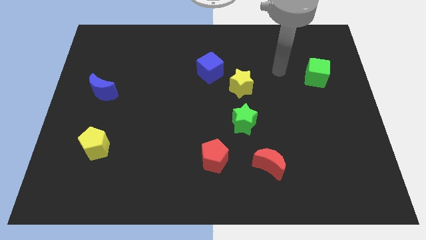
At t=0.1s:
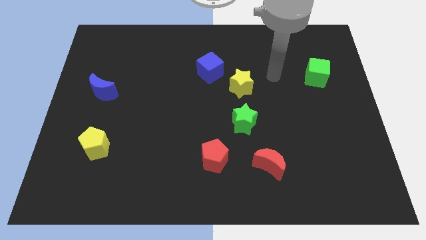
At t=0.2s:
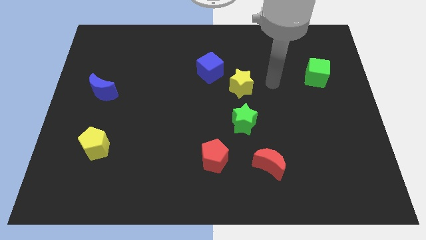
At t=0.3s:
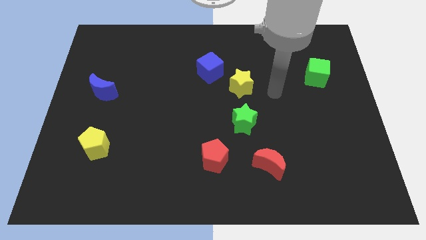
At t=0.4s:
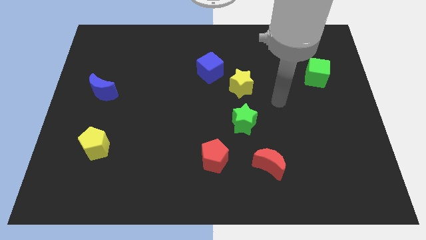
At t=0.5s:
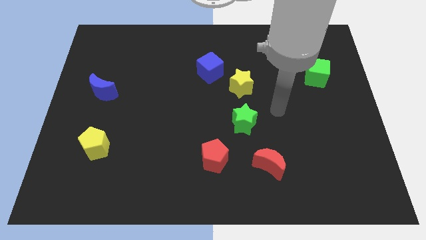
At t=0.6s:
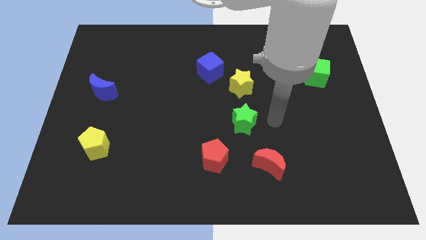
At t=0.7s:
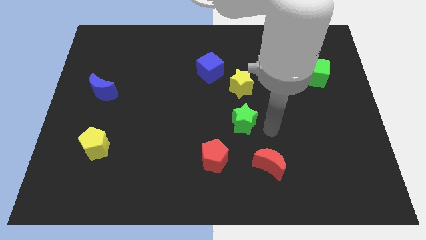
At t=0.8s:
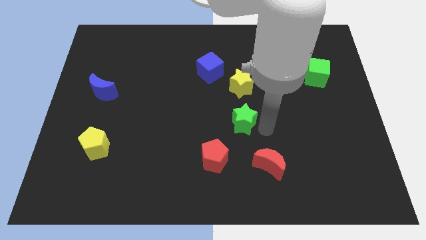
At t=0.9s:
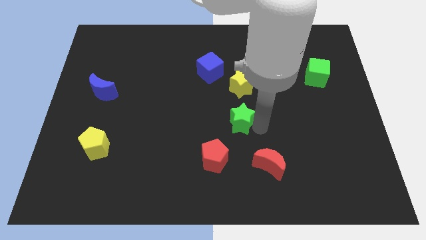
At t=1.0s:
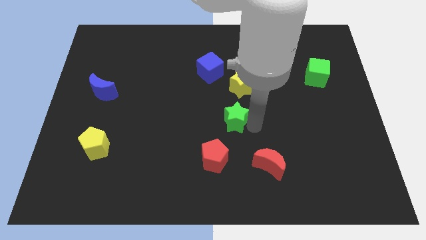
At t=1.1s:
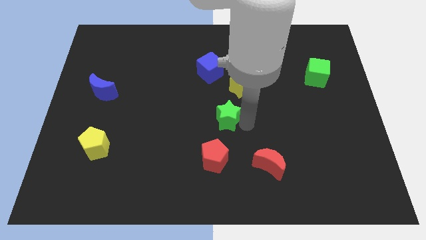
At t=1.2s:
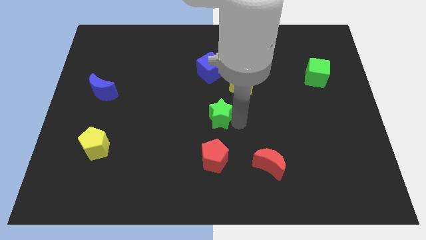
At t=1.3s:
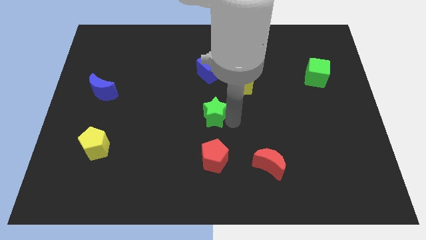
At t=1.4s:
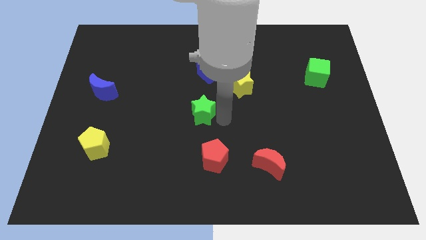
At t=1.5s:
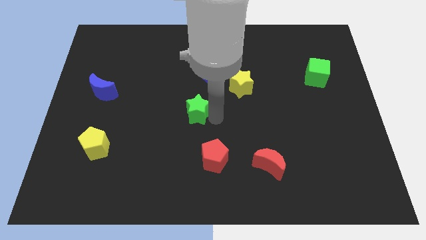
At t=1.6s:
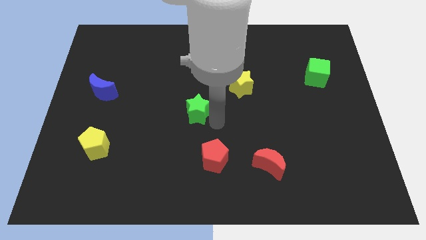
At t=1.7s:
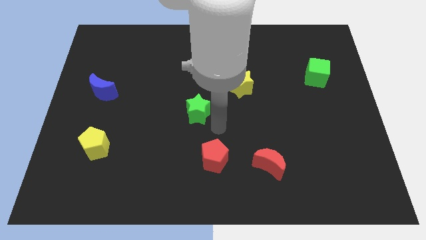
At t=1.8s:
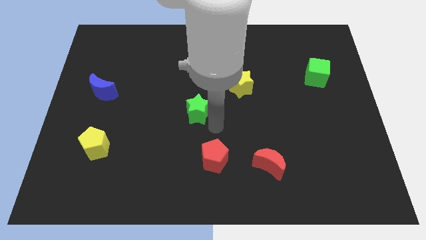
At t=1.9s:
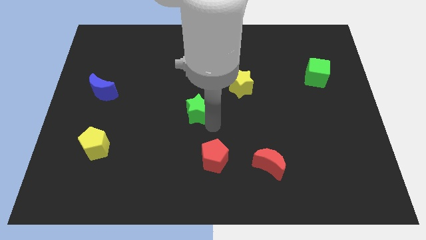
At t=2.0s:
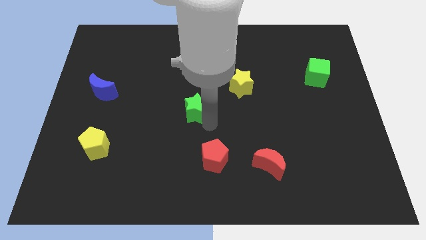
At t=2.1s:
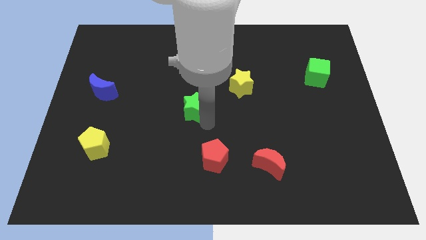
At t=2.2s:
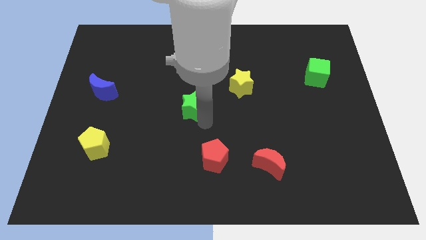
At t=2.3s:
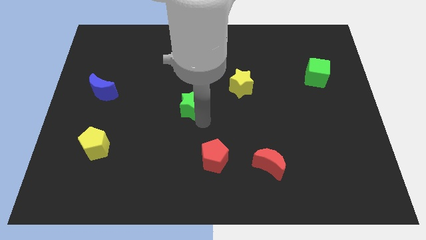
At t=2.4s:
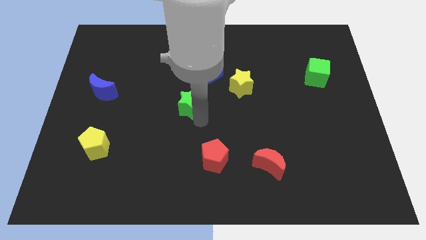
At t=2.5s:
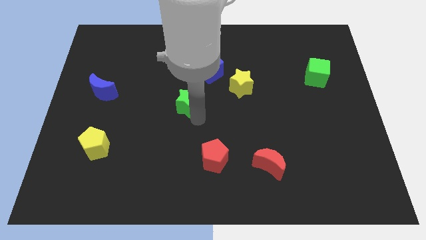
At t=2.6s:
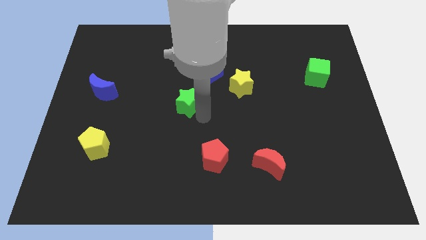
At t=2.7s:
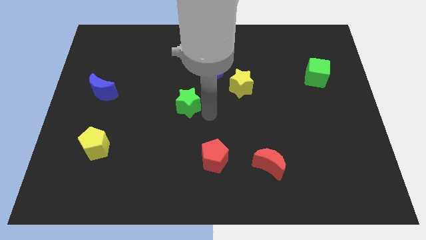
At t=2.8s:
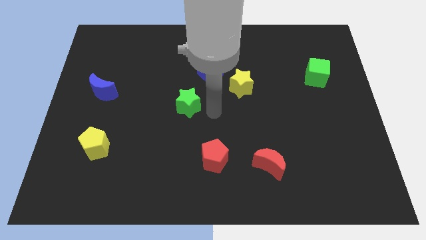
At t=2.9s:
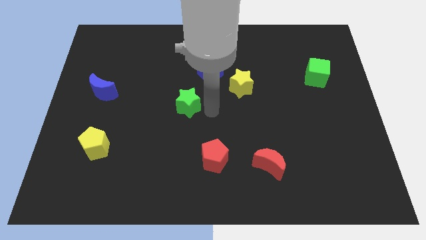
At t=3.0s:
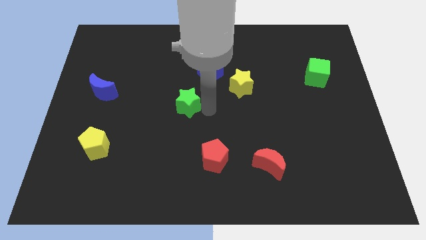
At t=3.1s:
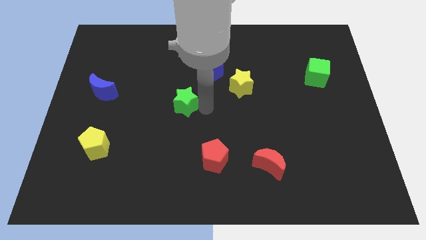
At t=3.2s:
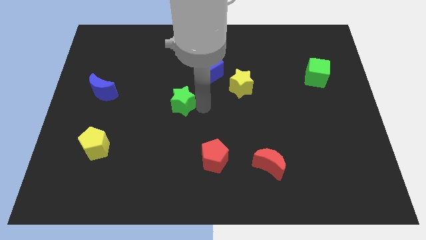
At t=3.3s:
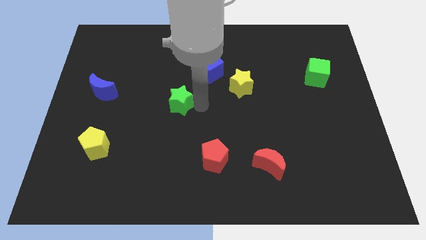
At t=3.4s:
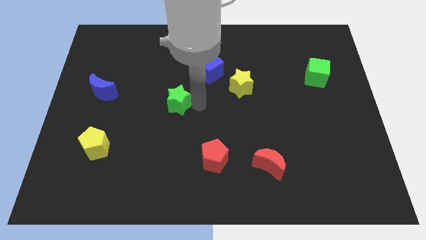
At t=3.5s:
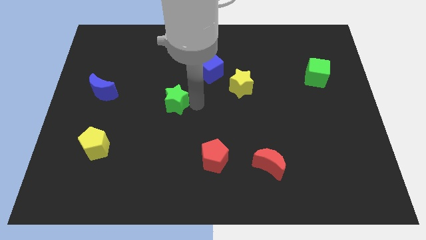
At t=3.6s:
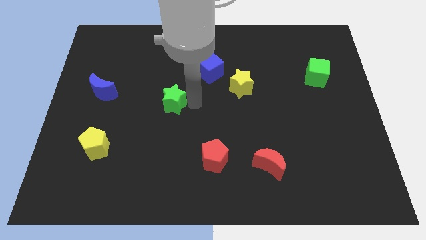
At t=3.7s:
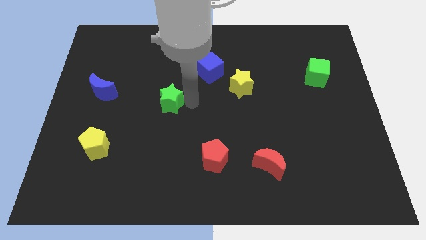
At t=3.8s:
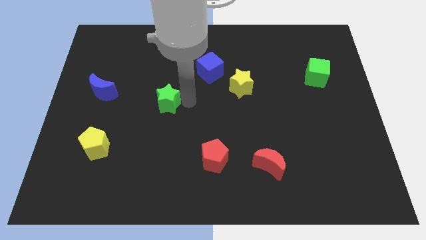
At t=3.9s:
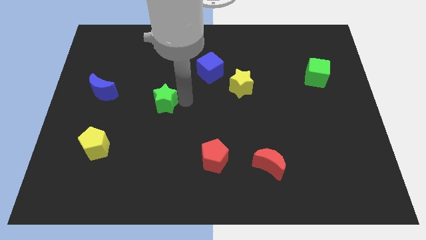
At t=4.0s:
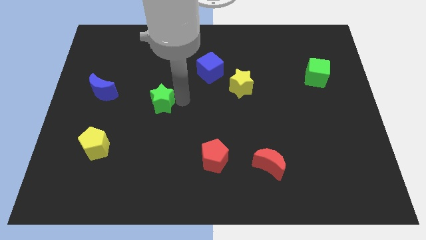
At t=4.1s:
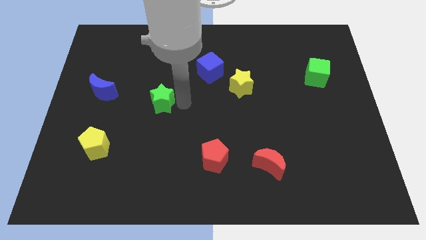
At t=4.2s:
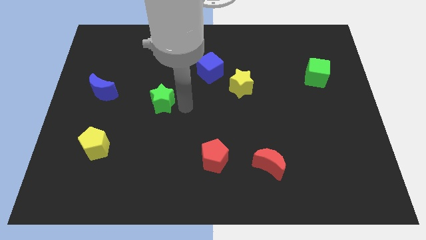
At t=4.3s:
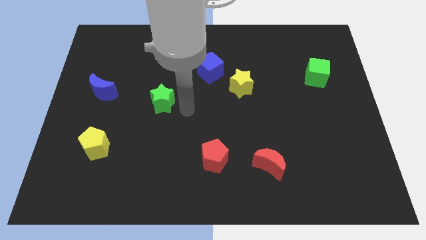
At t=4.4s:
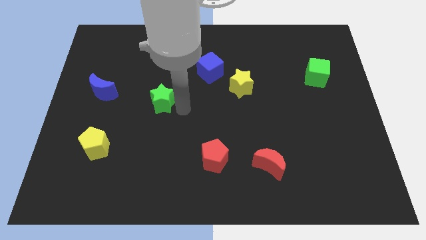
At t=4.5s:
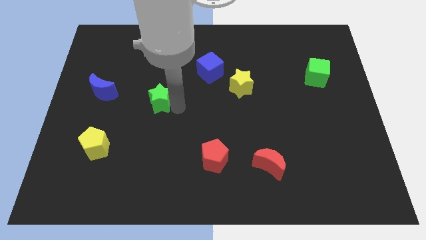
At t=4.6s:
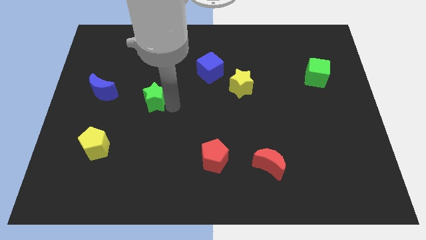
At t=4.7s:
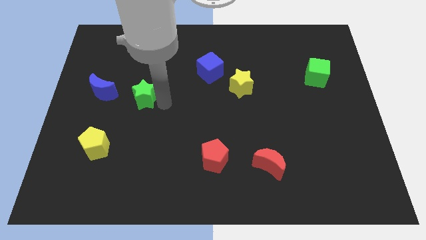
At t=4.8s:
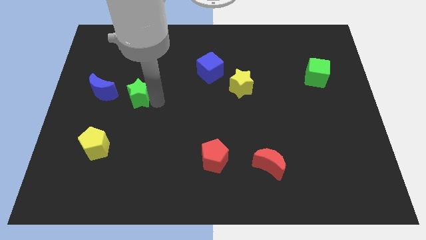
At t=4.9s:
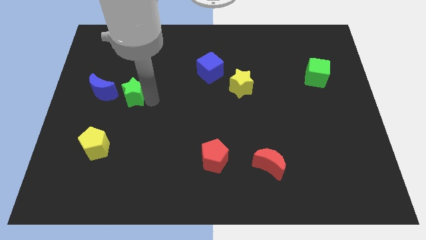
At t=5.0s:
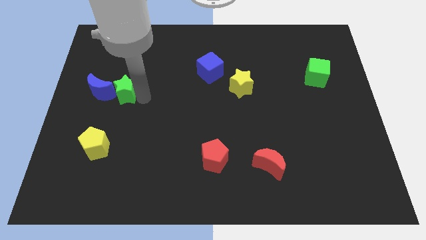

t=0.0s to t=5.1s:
slide the green star close to the blue moon

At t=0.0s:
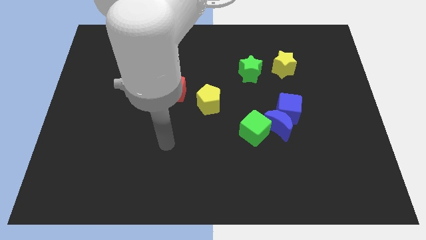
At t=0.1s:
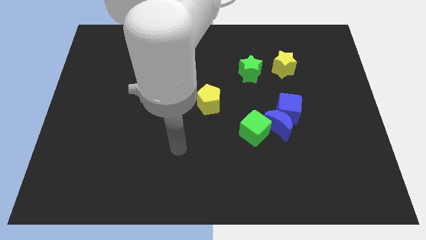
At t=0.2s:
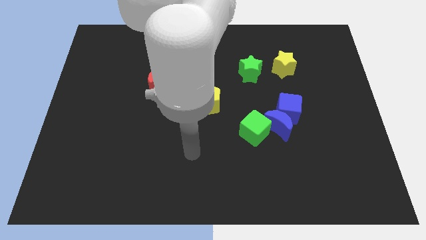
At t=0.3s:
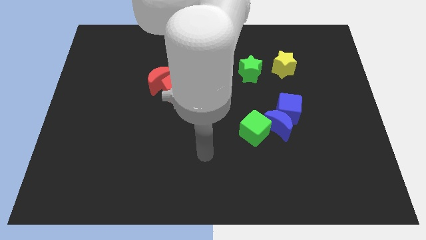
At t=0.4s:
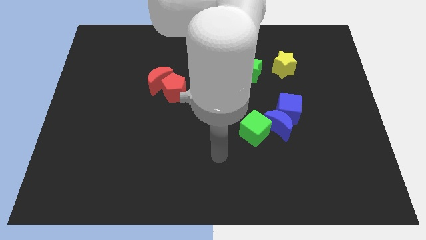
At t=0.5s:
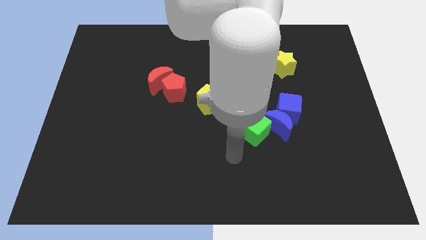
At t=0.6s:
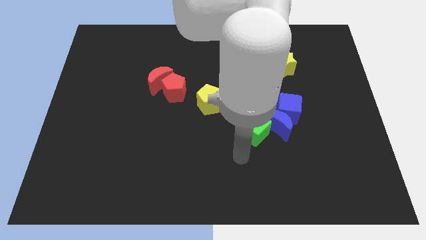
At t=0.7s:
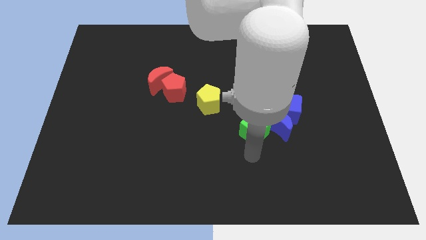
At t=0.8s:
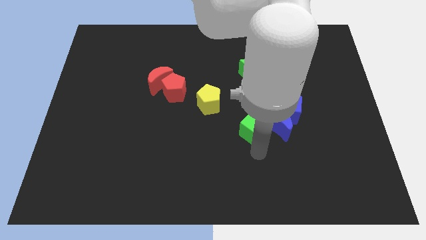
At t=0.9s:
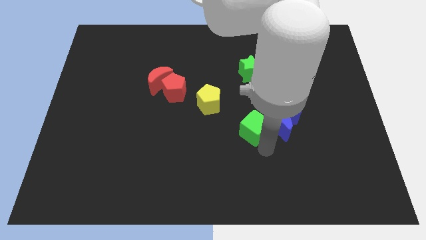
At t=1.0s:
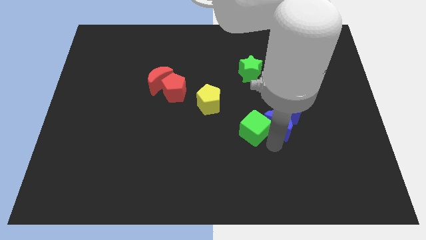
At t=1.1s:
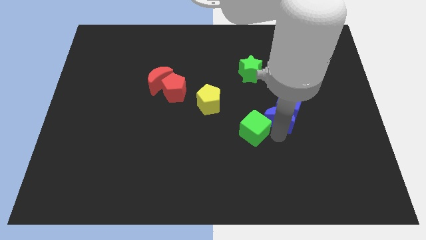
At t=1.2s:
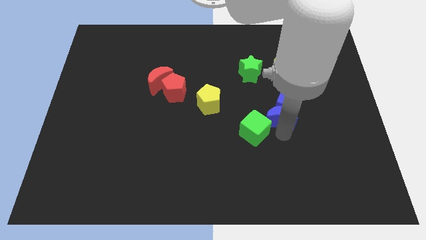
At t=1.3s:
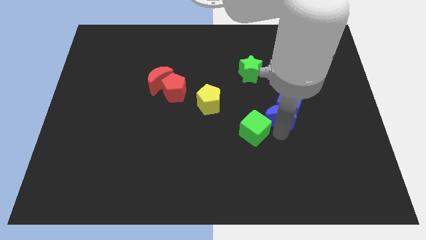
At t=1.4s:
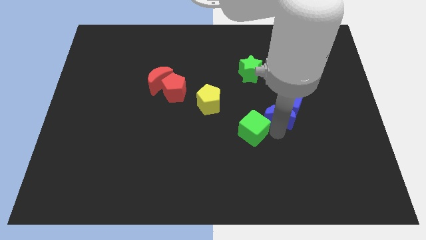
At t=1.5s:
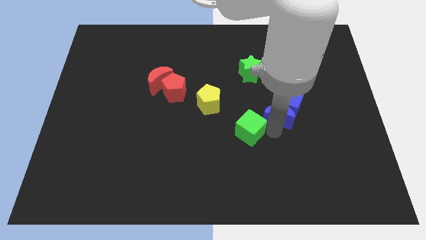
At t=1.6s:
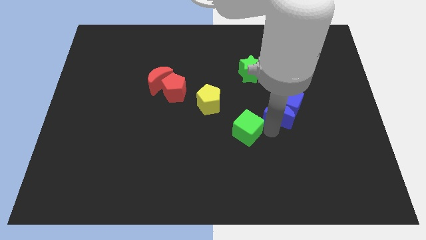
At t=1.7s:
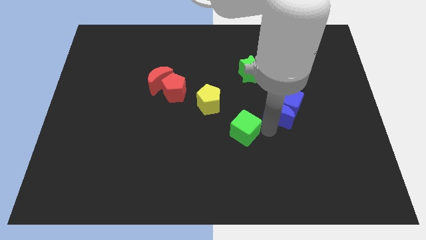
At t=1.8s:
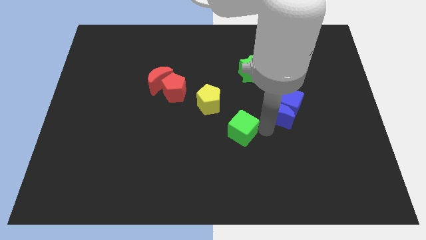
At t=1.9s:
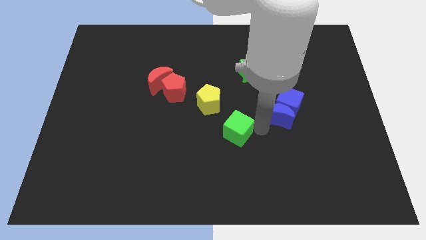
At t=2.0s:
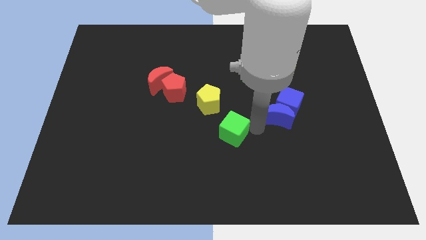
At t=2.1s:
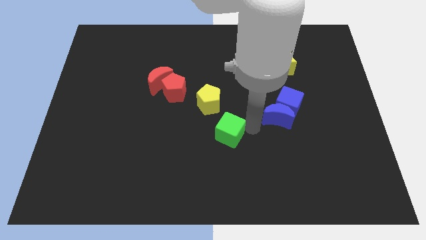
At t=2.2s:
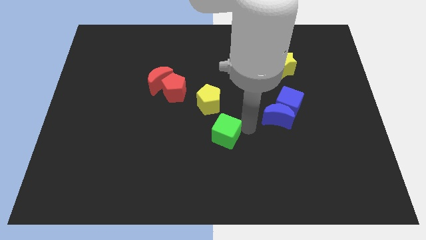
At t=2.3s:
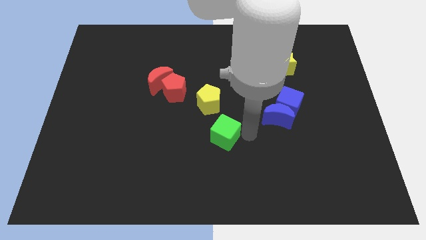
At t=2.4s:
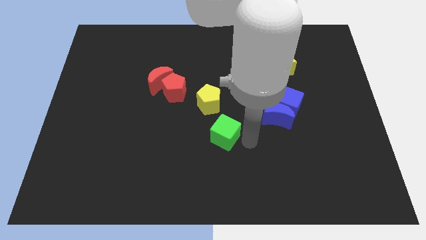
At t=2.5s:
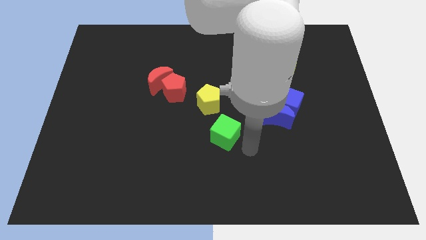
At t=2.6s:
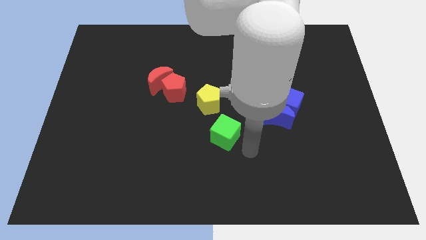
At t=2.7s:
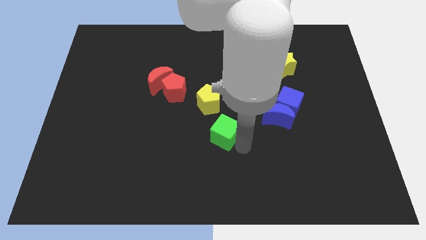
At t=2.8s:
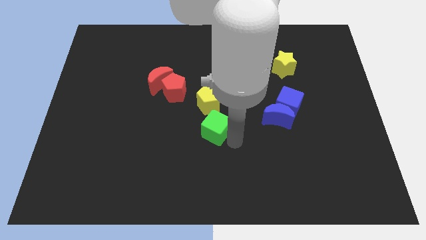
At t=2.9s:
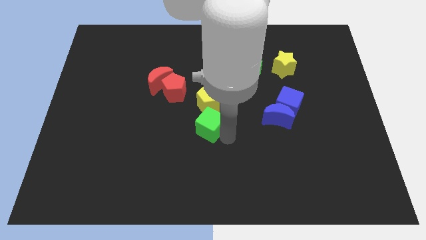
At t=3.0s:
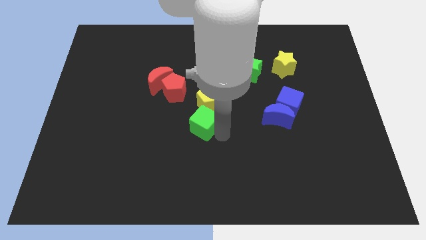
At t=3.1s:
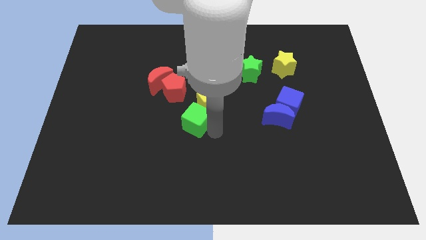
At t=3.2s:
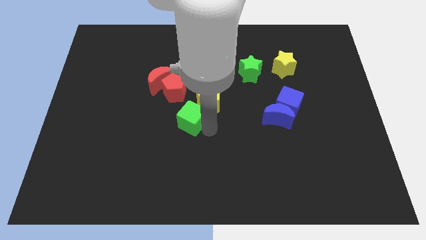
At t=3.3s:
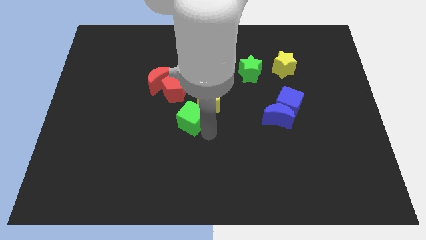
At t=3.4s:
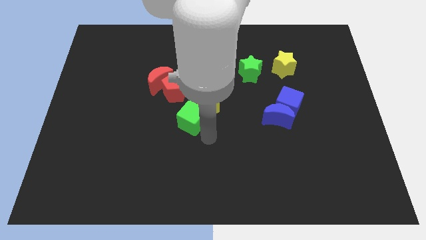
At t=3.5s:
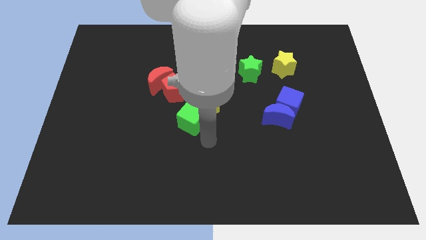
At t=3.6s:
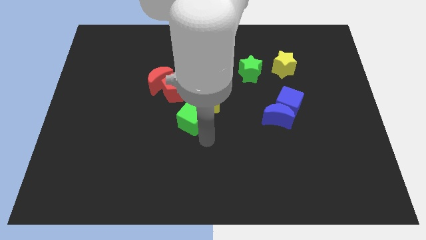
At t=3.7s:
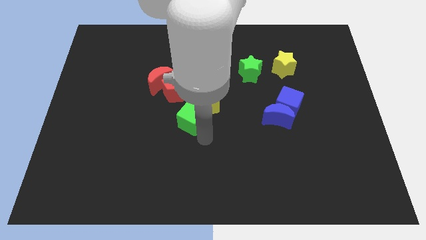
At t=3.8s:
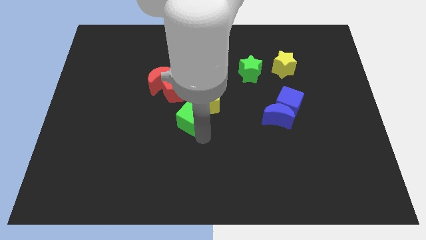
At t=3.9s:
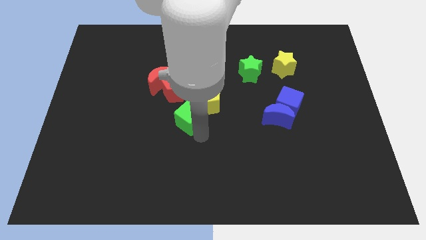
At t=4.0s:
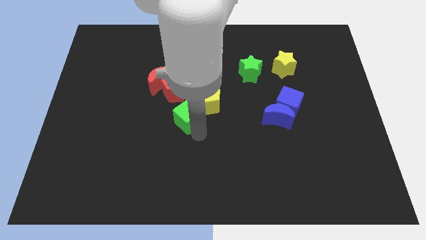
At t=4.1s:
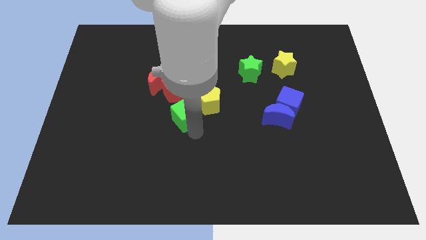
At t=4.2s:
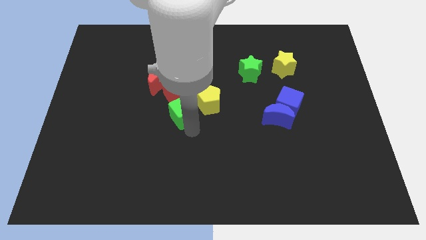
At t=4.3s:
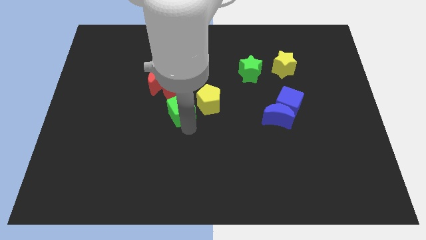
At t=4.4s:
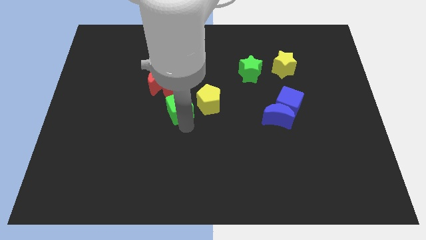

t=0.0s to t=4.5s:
push the green cube towards the red pentagon
